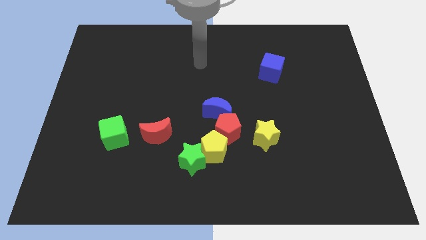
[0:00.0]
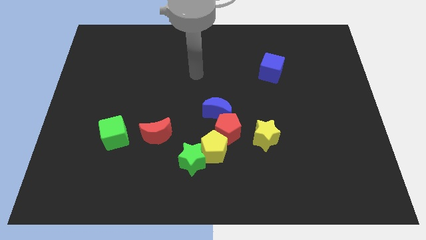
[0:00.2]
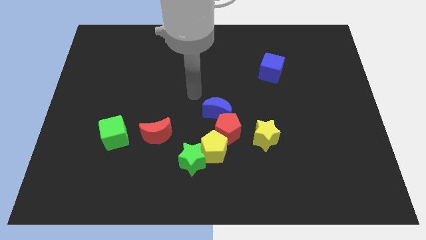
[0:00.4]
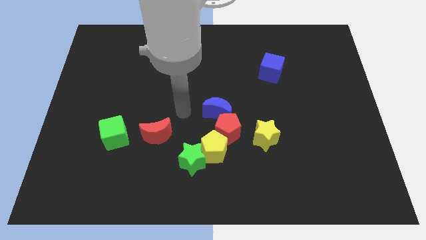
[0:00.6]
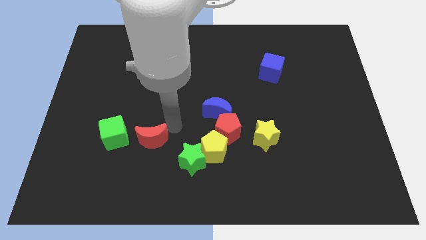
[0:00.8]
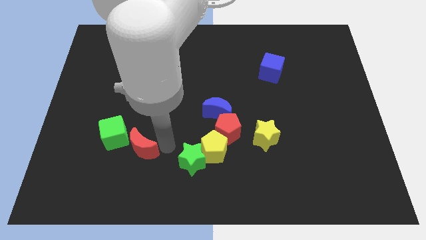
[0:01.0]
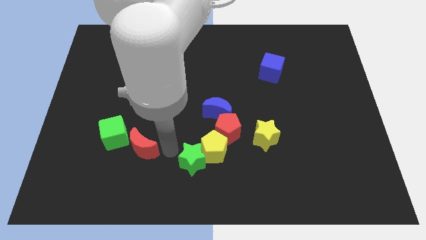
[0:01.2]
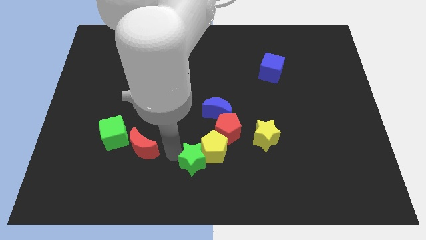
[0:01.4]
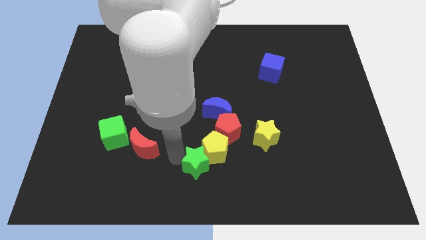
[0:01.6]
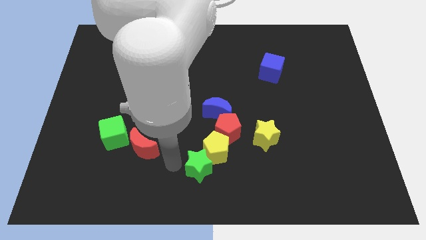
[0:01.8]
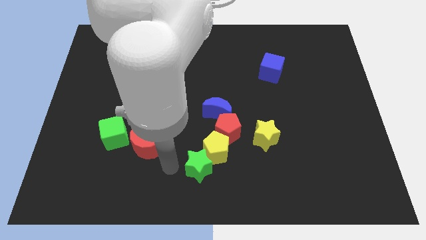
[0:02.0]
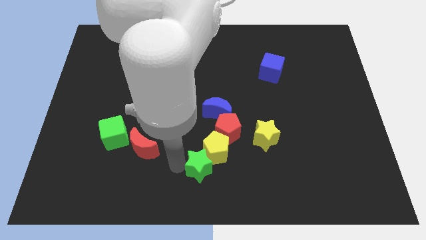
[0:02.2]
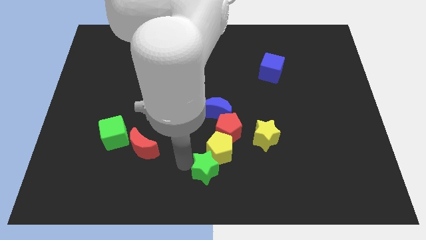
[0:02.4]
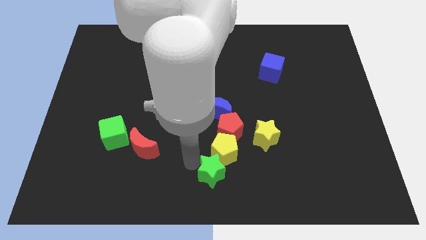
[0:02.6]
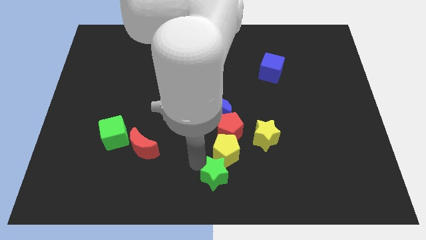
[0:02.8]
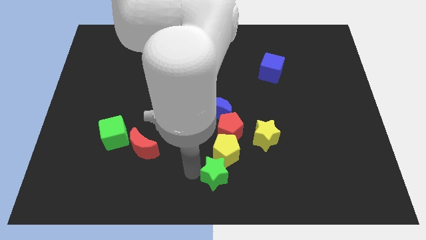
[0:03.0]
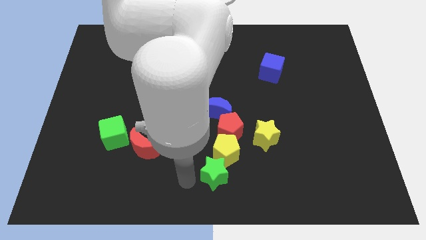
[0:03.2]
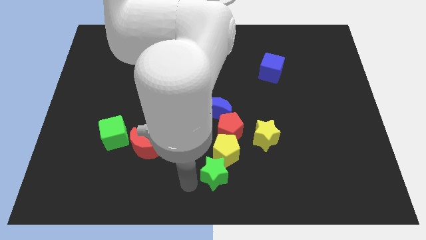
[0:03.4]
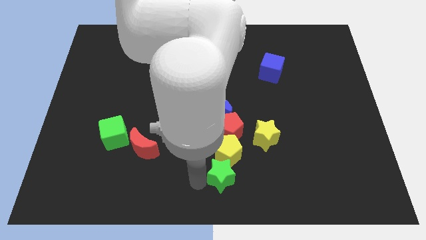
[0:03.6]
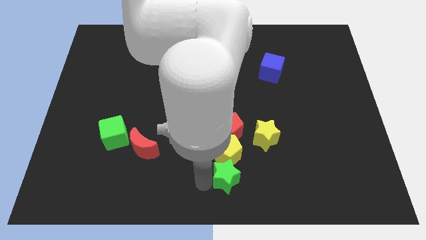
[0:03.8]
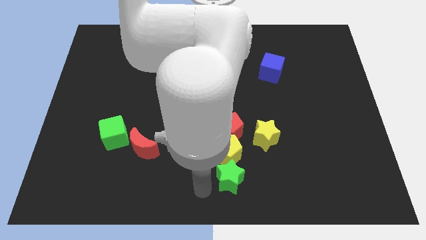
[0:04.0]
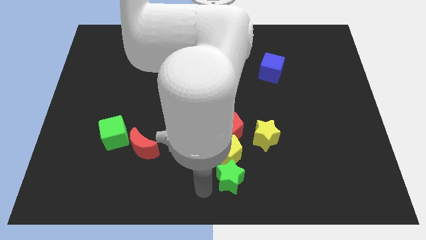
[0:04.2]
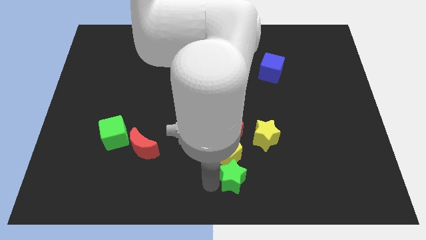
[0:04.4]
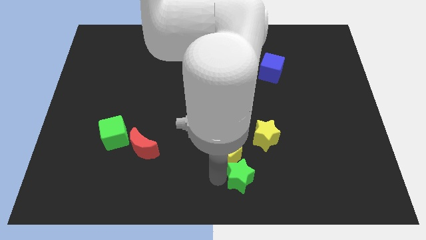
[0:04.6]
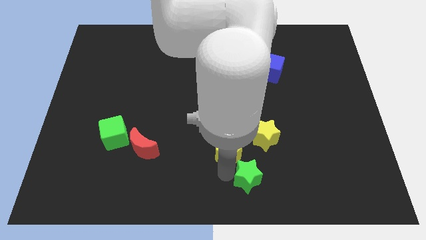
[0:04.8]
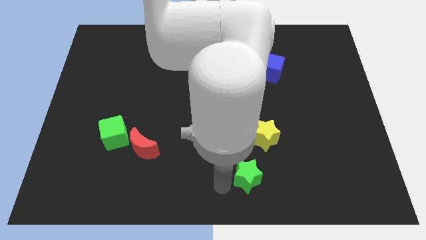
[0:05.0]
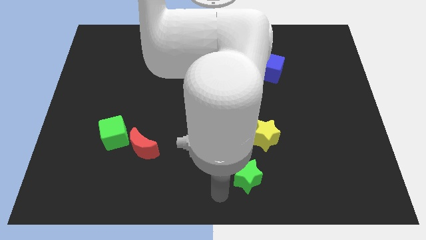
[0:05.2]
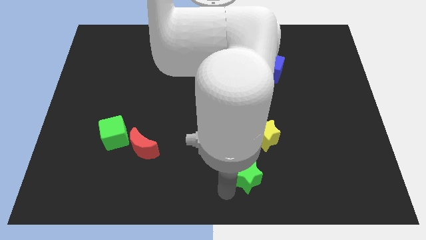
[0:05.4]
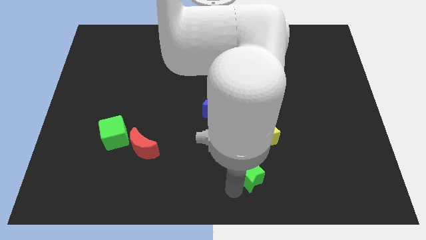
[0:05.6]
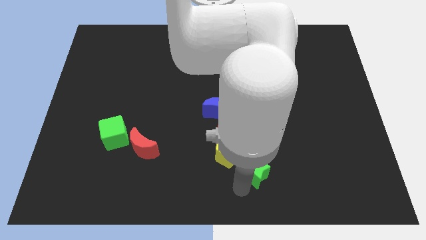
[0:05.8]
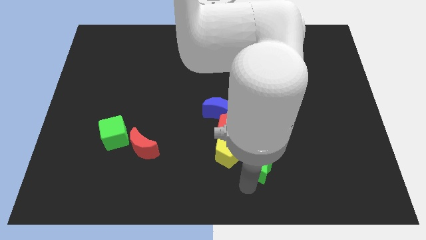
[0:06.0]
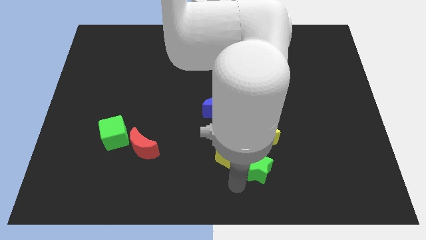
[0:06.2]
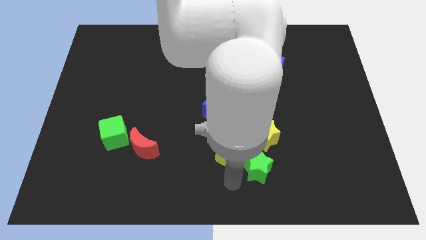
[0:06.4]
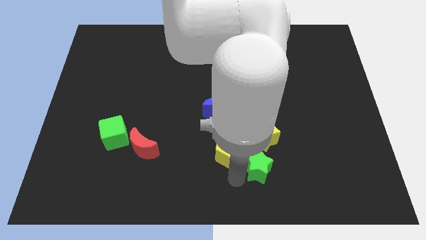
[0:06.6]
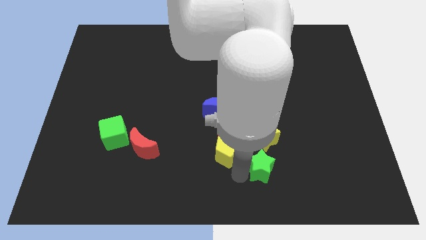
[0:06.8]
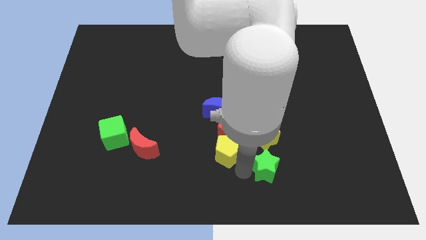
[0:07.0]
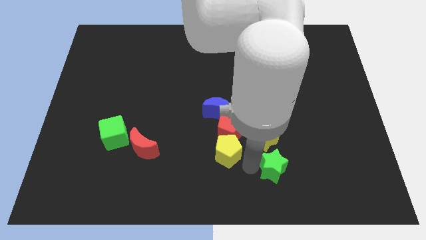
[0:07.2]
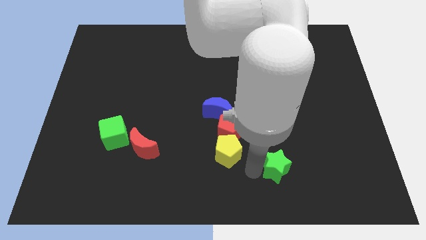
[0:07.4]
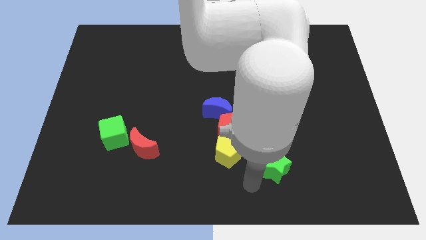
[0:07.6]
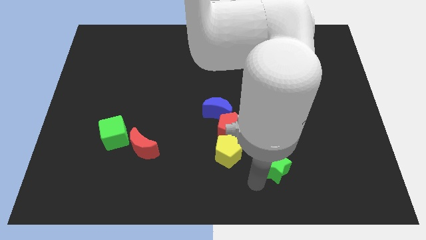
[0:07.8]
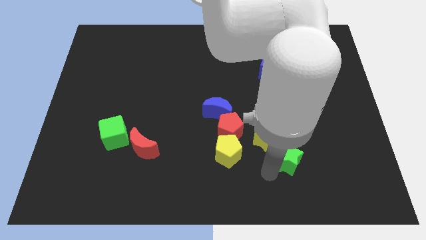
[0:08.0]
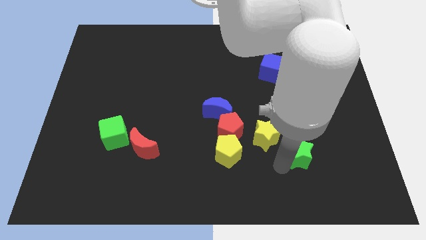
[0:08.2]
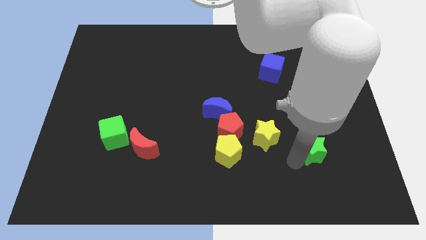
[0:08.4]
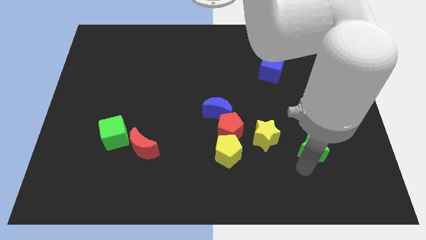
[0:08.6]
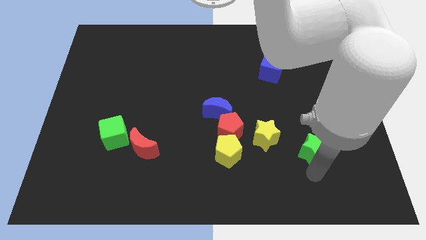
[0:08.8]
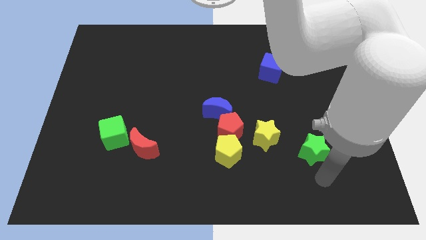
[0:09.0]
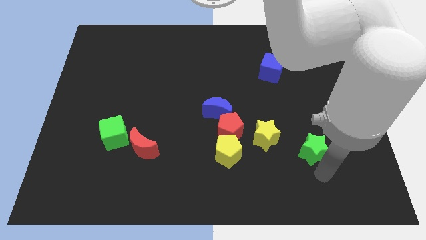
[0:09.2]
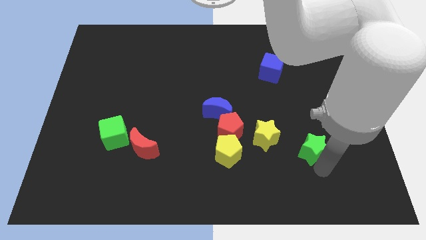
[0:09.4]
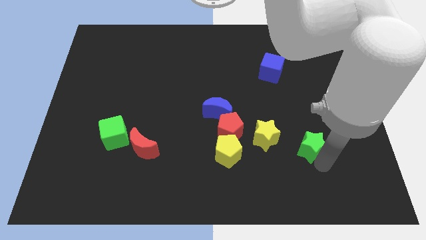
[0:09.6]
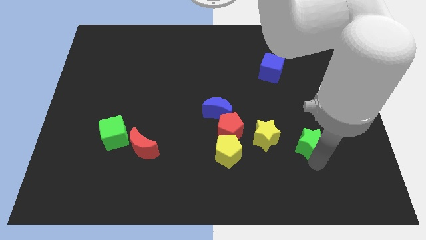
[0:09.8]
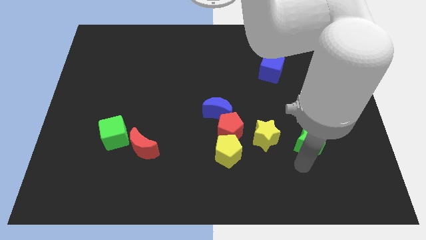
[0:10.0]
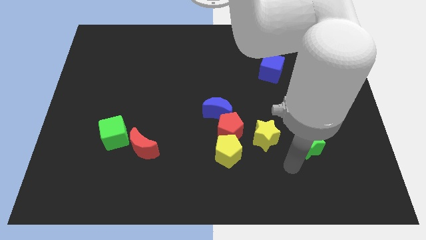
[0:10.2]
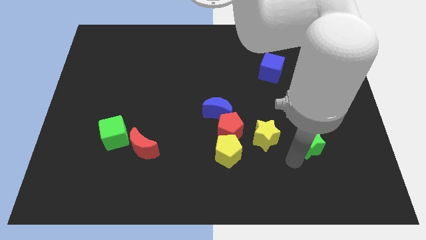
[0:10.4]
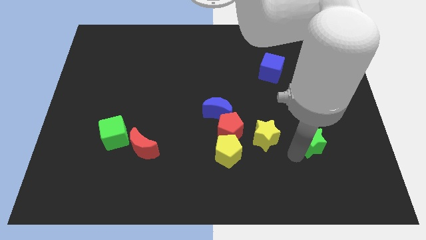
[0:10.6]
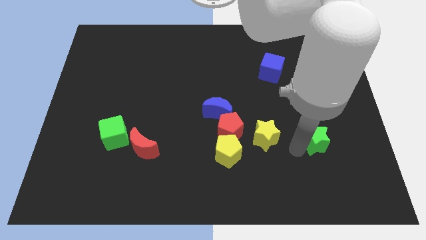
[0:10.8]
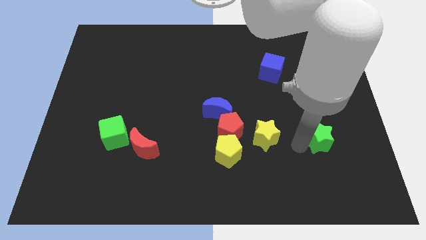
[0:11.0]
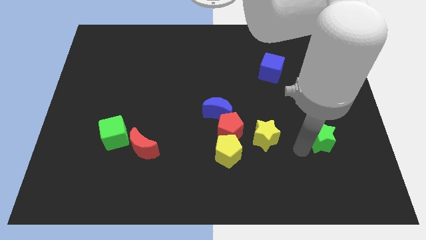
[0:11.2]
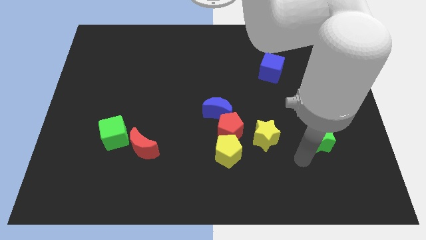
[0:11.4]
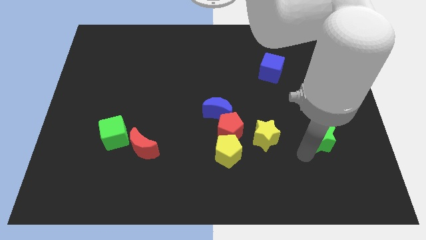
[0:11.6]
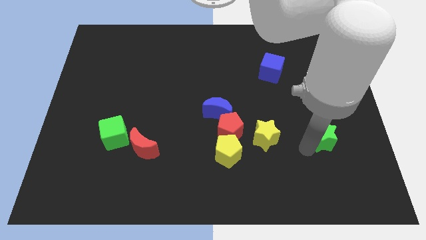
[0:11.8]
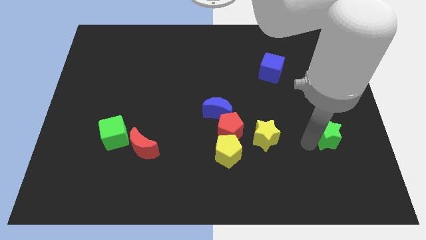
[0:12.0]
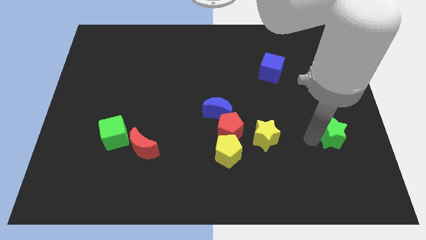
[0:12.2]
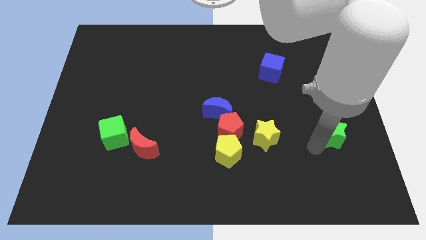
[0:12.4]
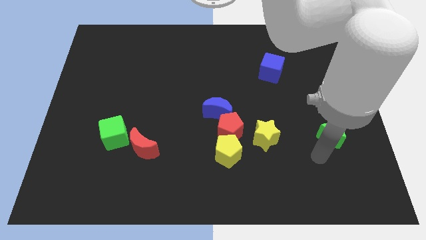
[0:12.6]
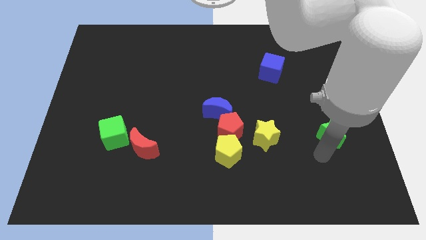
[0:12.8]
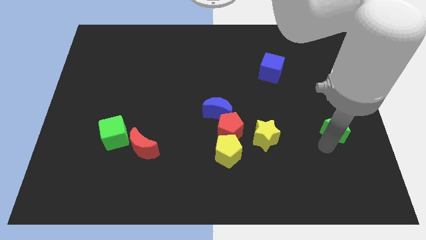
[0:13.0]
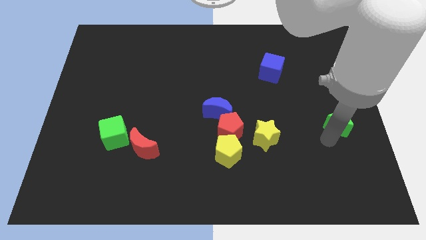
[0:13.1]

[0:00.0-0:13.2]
move the green star to the right side

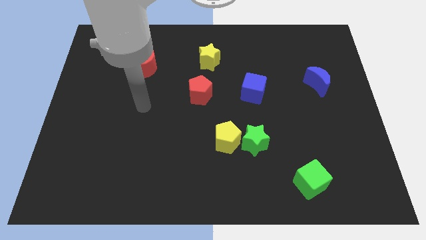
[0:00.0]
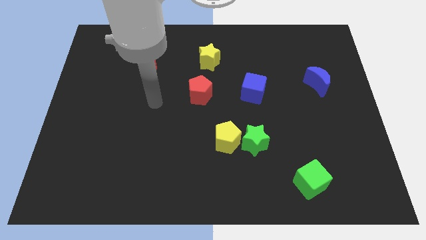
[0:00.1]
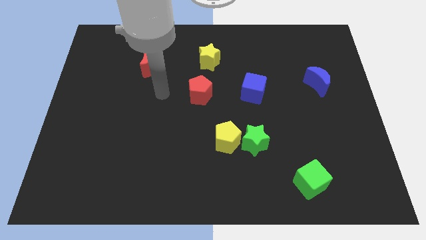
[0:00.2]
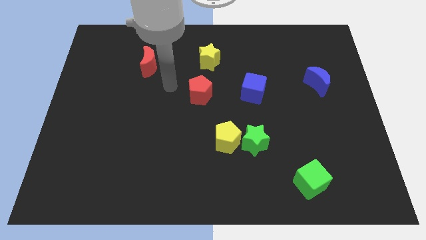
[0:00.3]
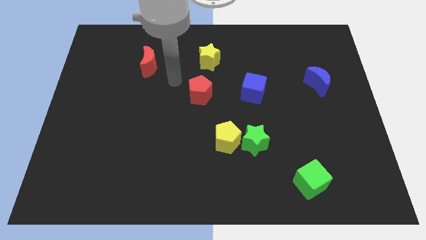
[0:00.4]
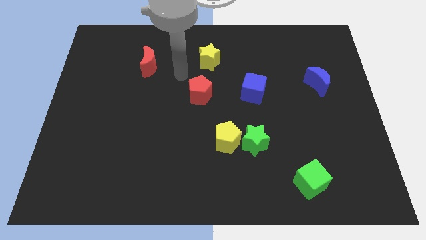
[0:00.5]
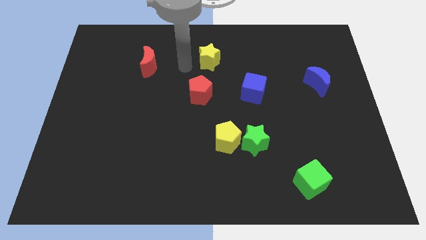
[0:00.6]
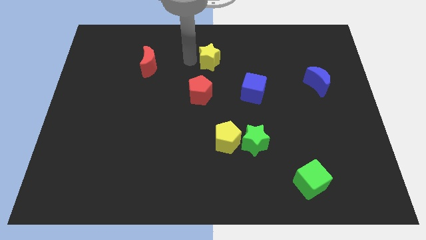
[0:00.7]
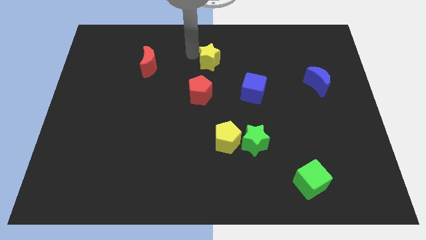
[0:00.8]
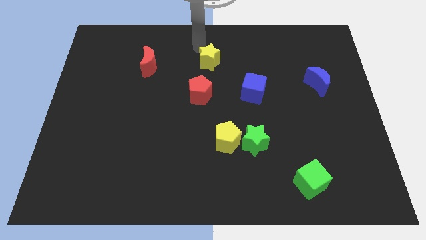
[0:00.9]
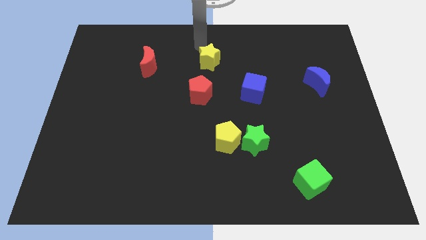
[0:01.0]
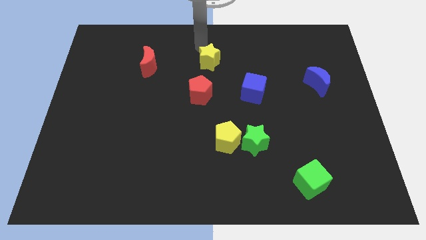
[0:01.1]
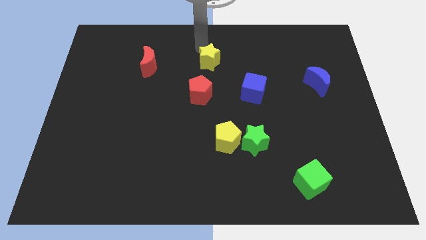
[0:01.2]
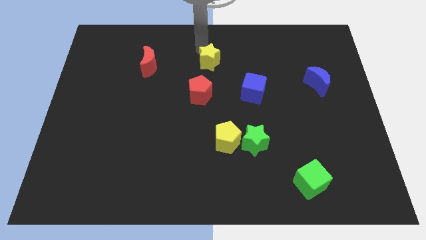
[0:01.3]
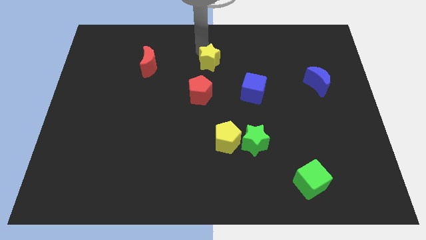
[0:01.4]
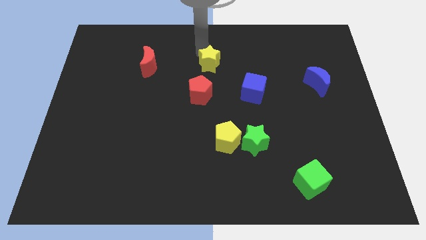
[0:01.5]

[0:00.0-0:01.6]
push the yellow star to the middle of the board
